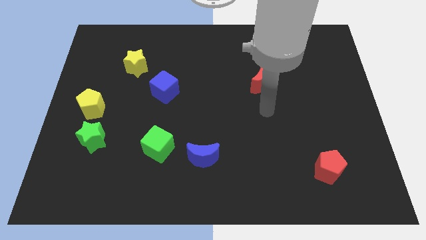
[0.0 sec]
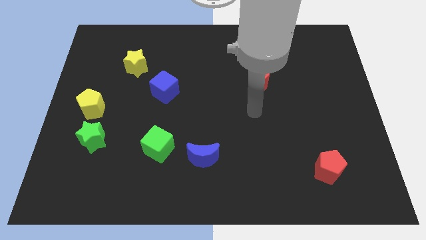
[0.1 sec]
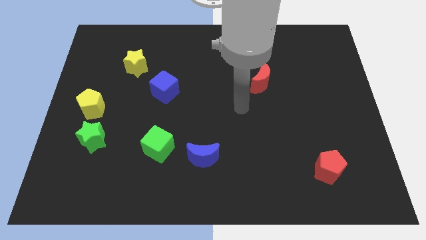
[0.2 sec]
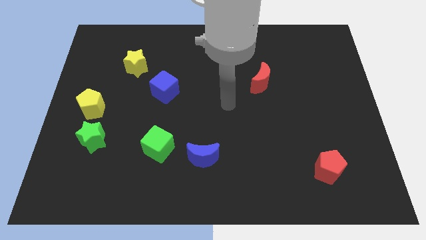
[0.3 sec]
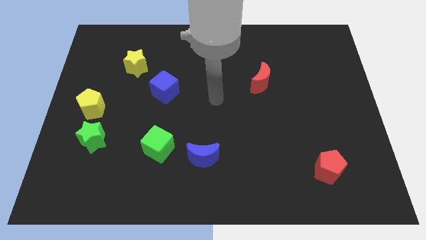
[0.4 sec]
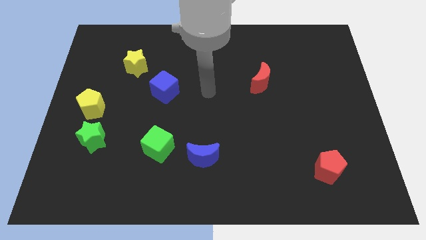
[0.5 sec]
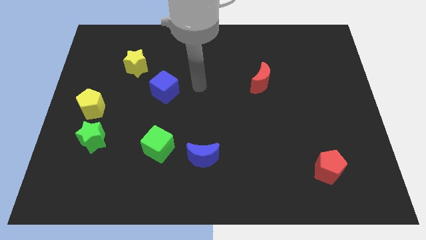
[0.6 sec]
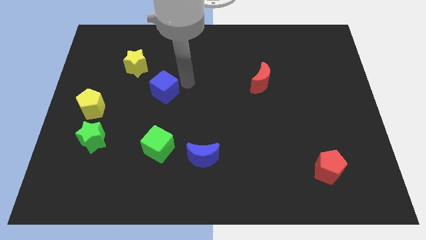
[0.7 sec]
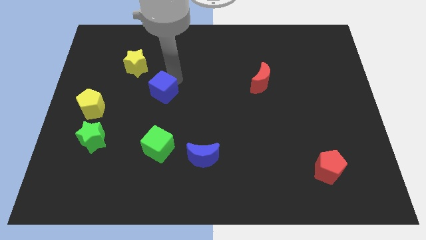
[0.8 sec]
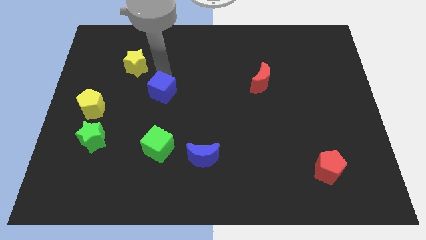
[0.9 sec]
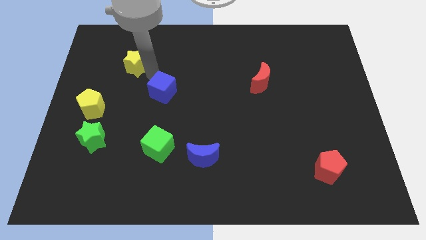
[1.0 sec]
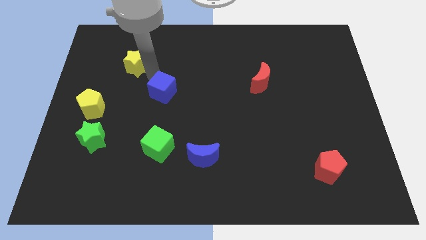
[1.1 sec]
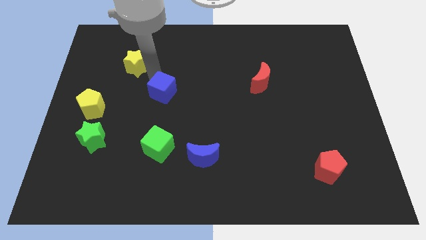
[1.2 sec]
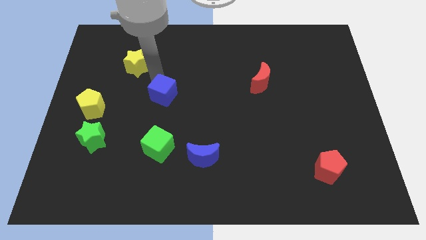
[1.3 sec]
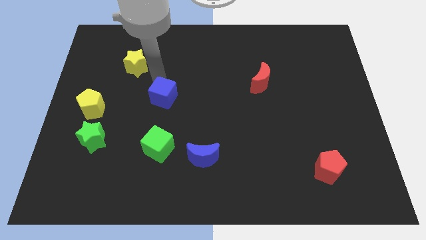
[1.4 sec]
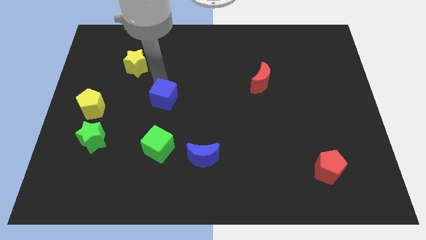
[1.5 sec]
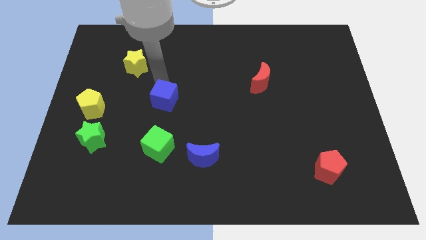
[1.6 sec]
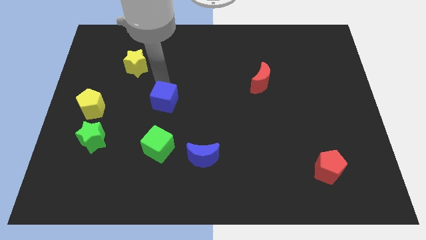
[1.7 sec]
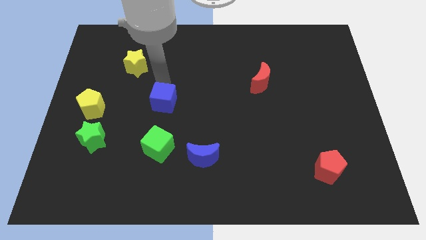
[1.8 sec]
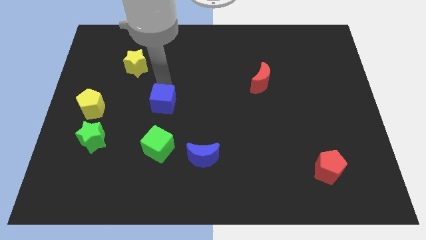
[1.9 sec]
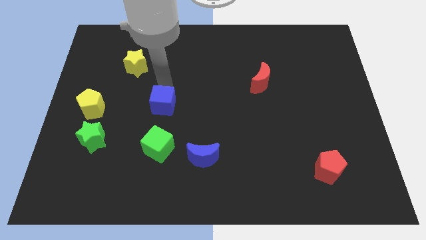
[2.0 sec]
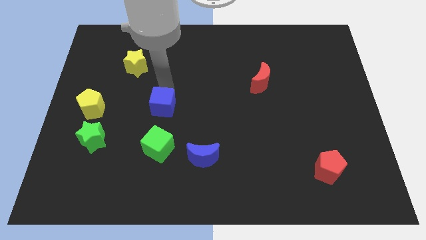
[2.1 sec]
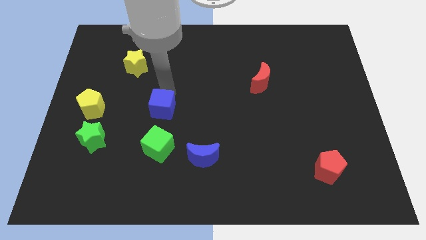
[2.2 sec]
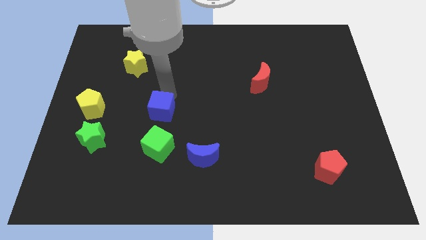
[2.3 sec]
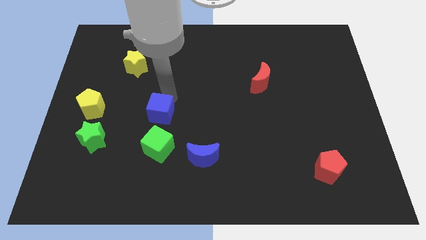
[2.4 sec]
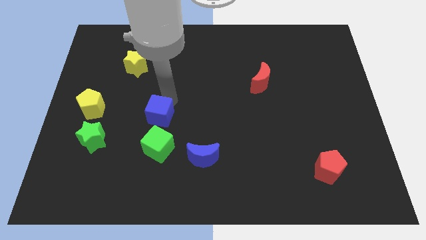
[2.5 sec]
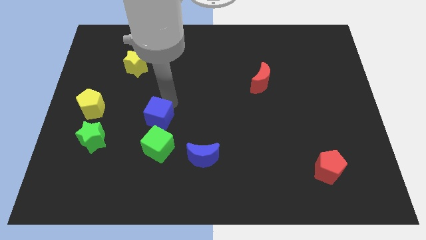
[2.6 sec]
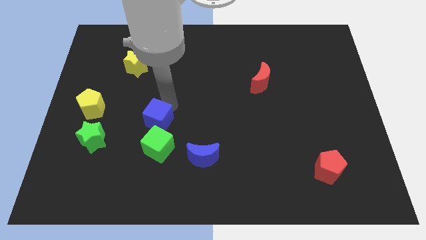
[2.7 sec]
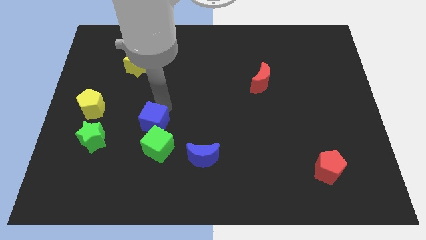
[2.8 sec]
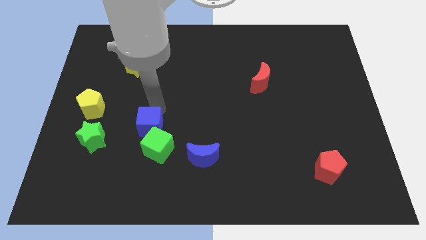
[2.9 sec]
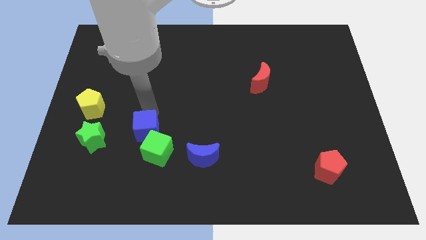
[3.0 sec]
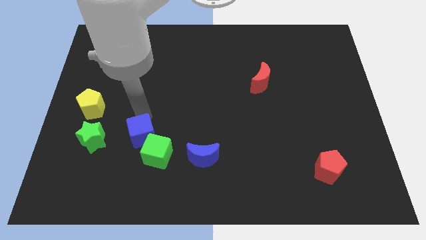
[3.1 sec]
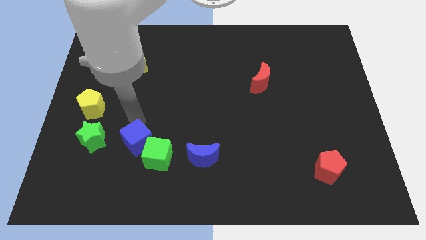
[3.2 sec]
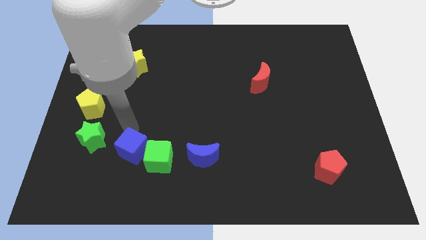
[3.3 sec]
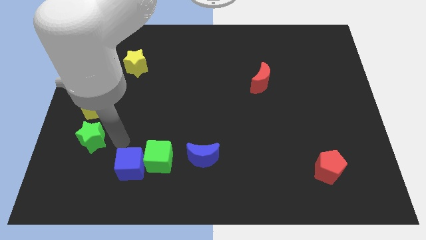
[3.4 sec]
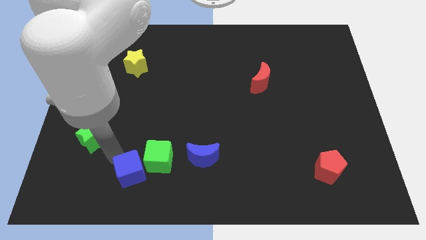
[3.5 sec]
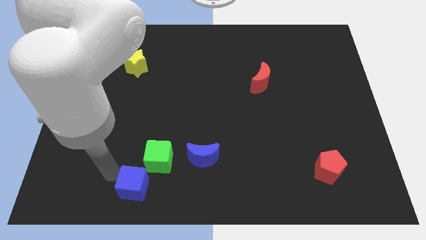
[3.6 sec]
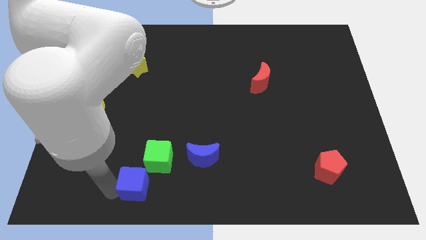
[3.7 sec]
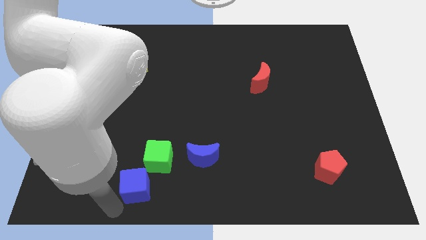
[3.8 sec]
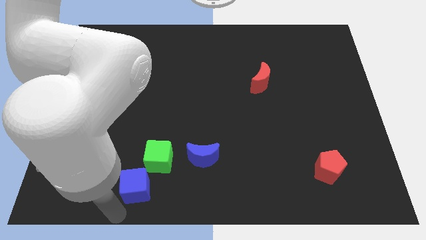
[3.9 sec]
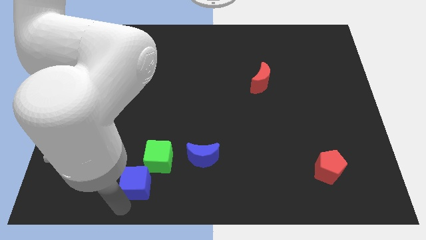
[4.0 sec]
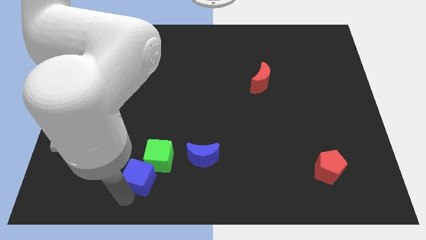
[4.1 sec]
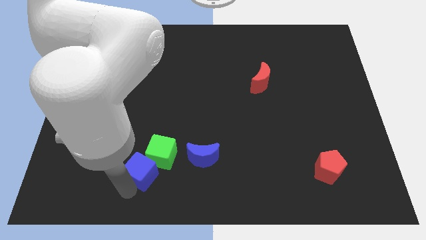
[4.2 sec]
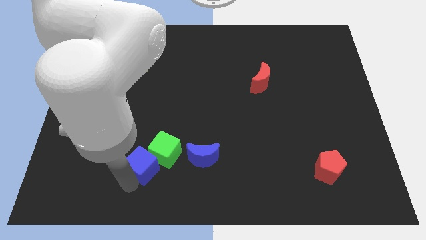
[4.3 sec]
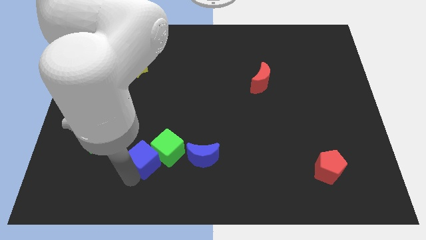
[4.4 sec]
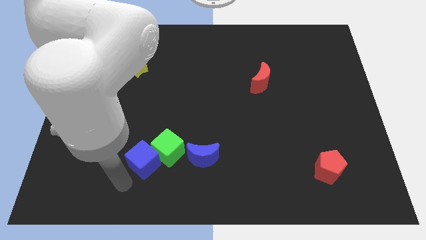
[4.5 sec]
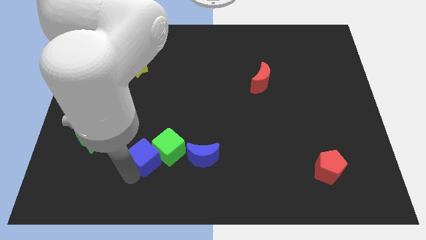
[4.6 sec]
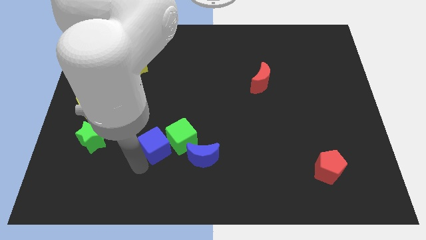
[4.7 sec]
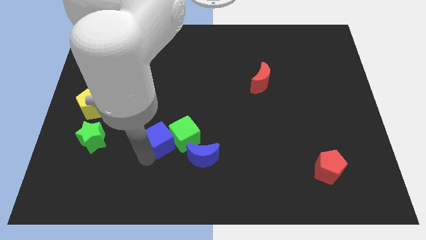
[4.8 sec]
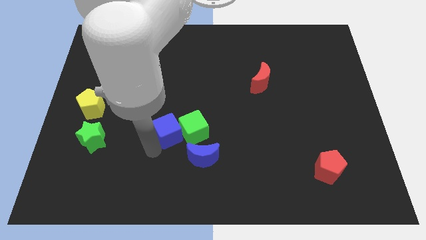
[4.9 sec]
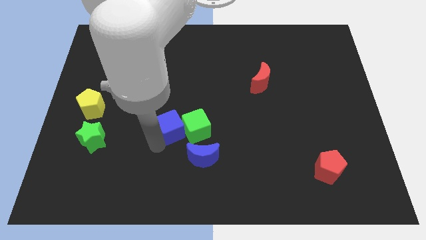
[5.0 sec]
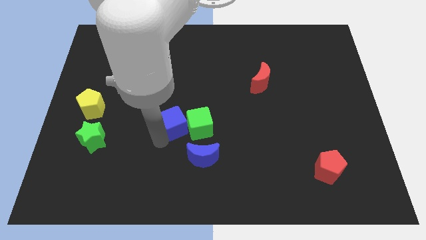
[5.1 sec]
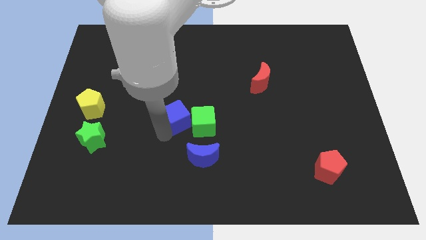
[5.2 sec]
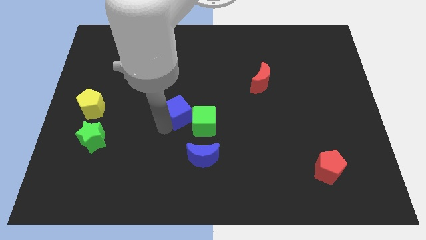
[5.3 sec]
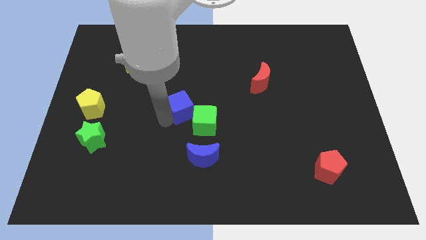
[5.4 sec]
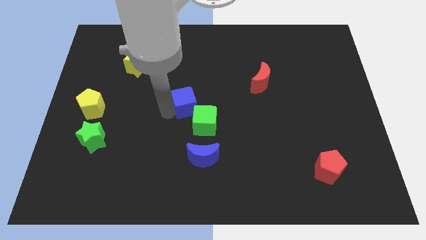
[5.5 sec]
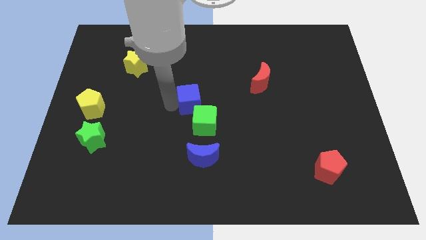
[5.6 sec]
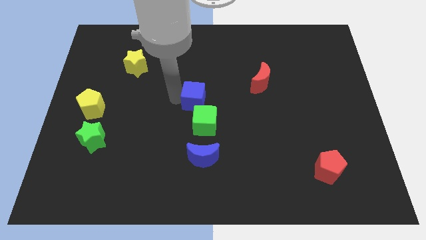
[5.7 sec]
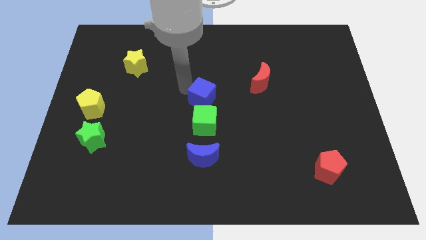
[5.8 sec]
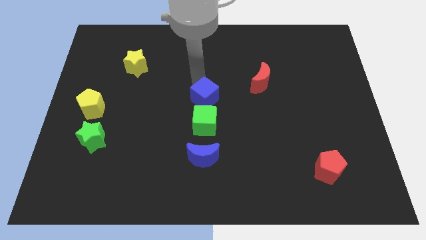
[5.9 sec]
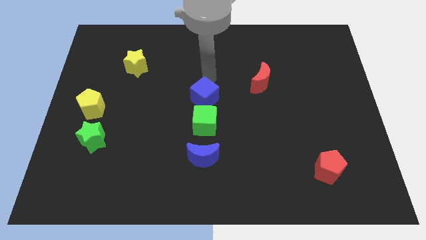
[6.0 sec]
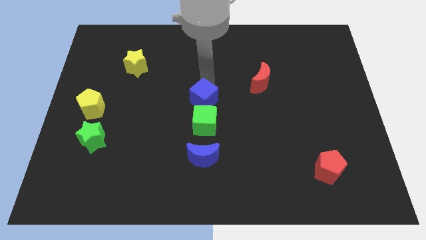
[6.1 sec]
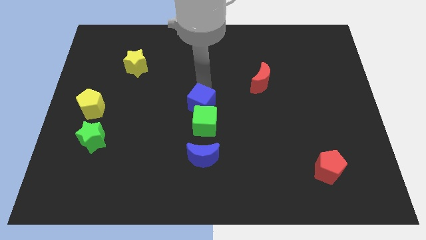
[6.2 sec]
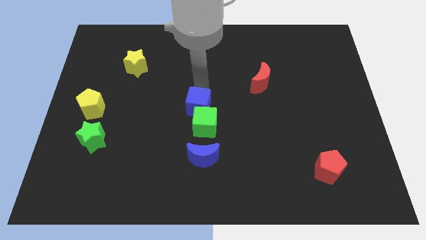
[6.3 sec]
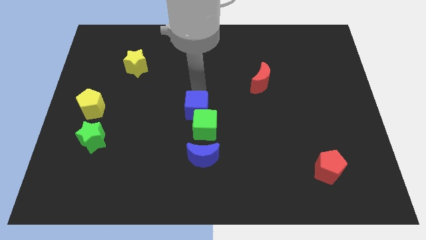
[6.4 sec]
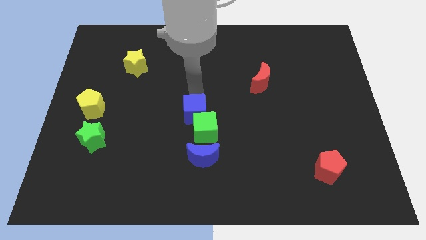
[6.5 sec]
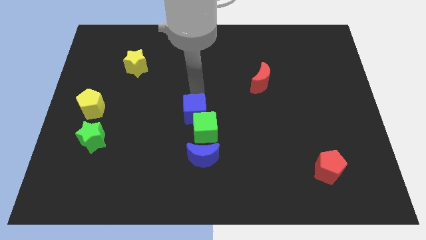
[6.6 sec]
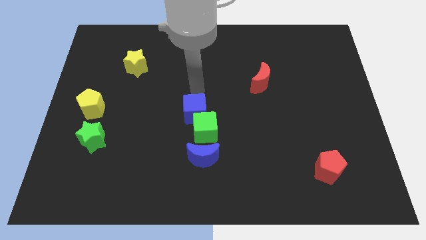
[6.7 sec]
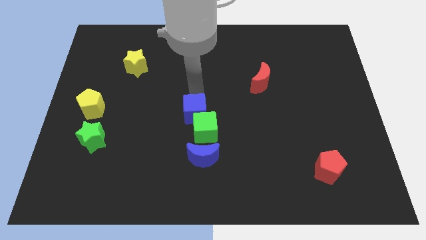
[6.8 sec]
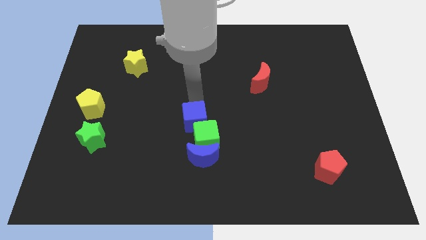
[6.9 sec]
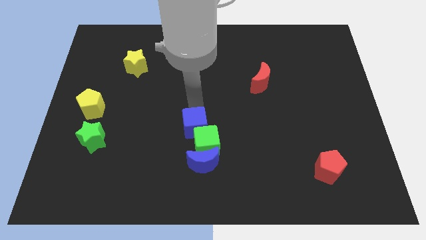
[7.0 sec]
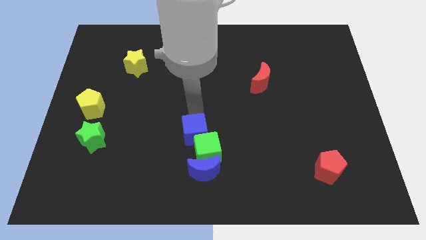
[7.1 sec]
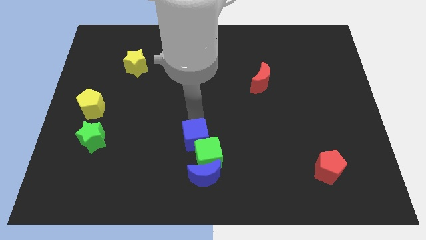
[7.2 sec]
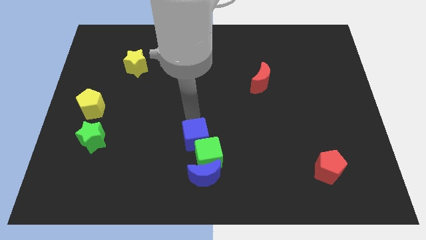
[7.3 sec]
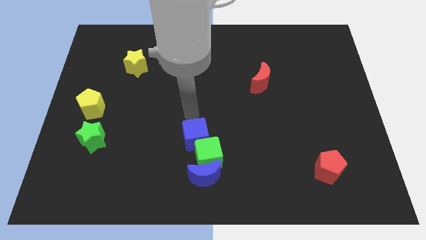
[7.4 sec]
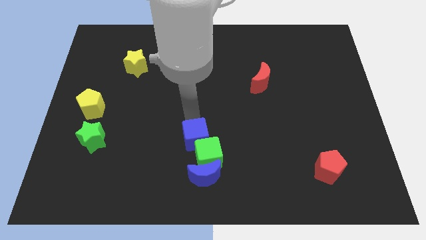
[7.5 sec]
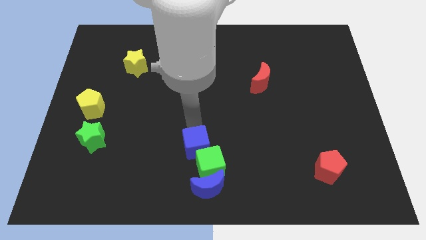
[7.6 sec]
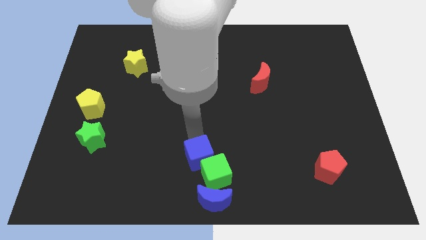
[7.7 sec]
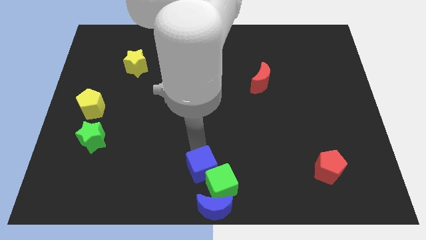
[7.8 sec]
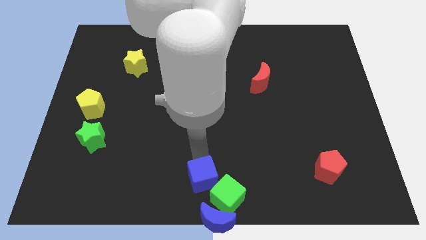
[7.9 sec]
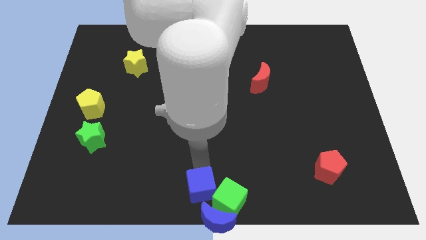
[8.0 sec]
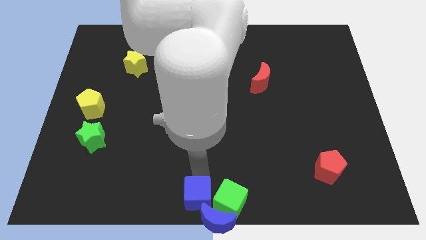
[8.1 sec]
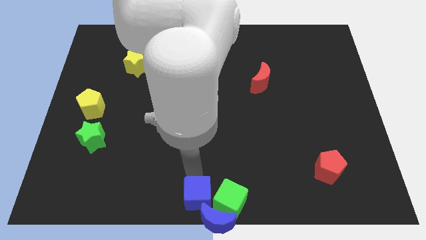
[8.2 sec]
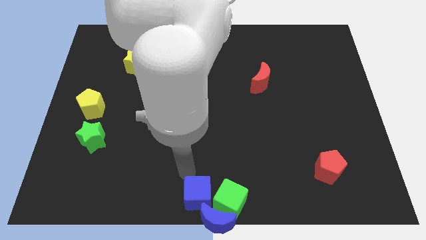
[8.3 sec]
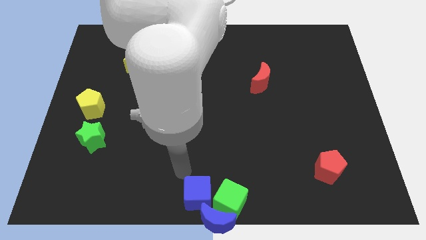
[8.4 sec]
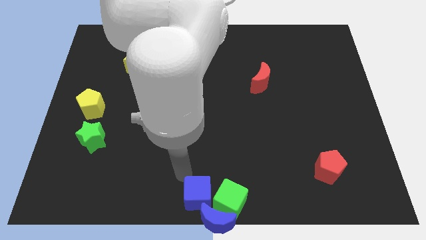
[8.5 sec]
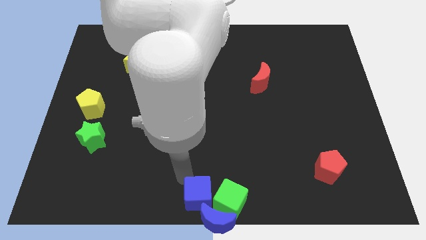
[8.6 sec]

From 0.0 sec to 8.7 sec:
slide the blue cube close to the blue moon
